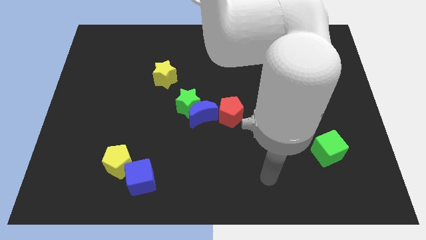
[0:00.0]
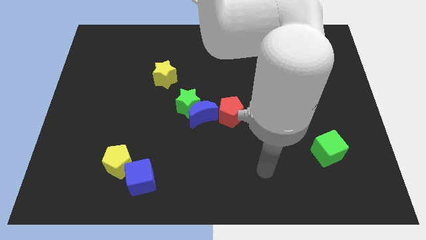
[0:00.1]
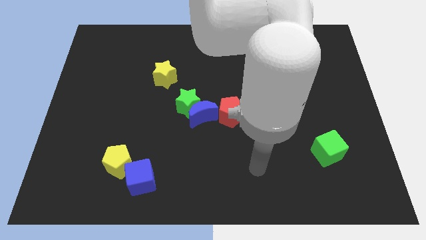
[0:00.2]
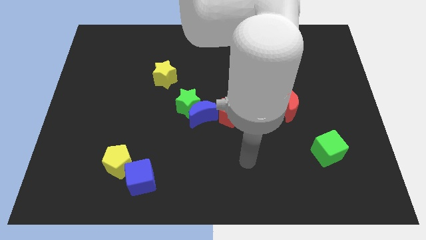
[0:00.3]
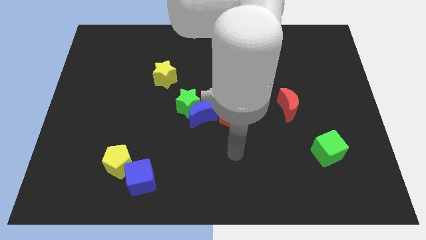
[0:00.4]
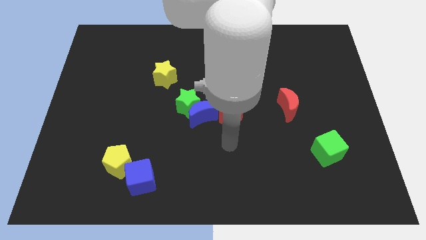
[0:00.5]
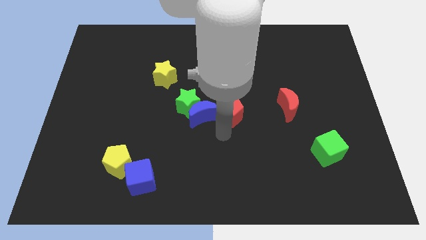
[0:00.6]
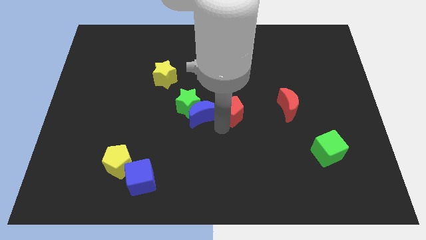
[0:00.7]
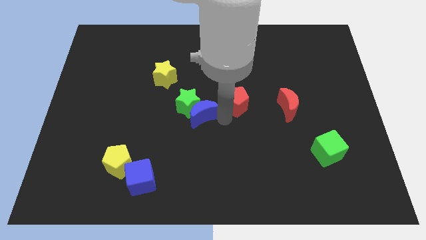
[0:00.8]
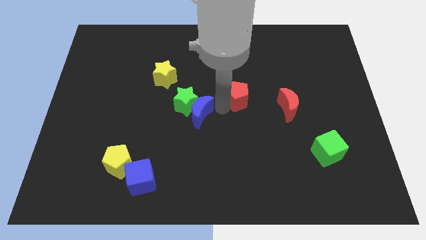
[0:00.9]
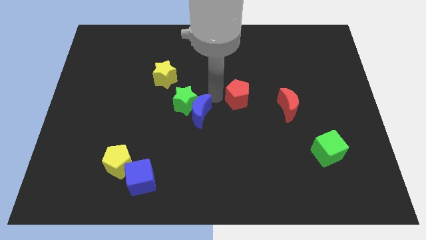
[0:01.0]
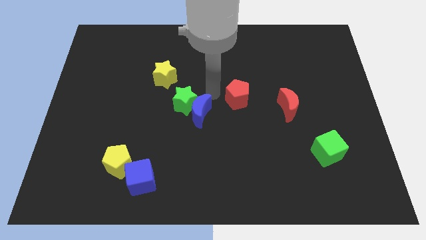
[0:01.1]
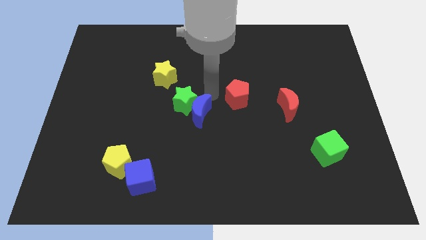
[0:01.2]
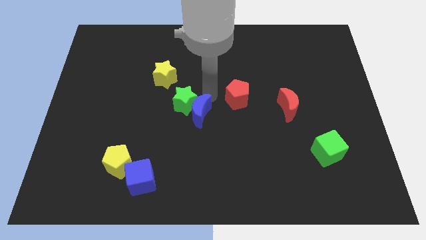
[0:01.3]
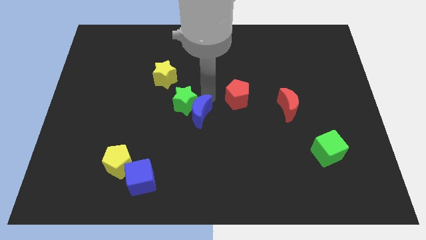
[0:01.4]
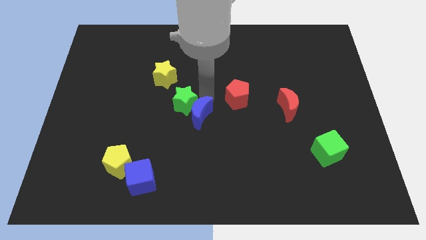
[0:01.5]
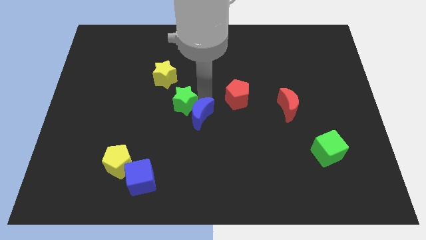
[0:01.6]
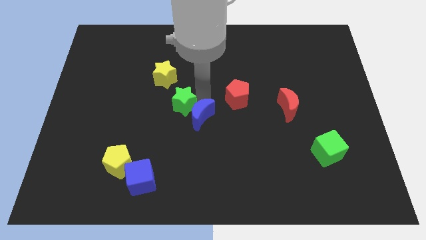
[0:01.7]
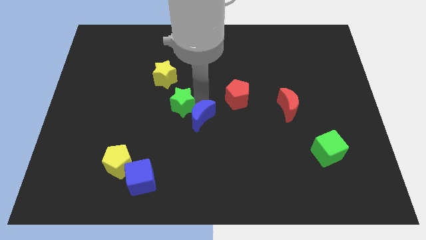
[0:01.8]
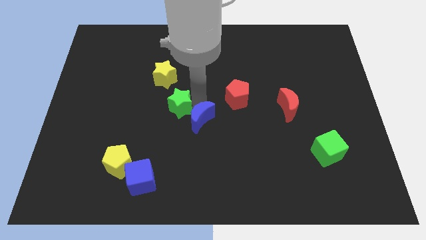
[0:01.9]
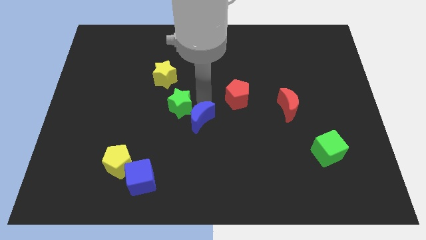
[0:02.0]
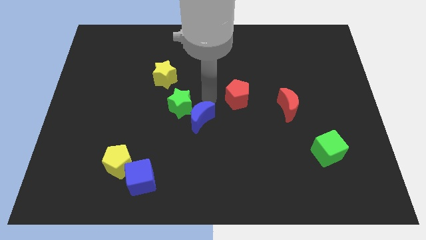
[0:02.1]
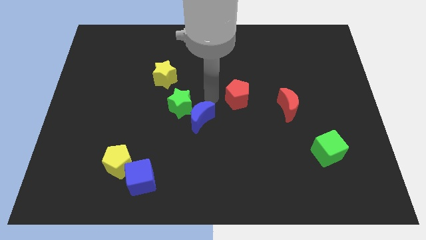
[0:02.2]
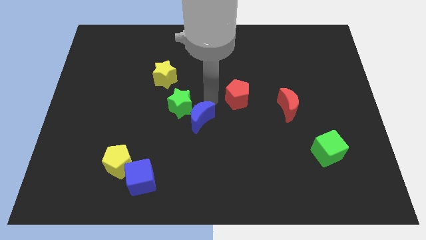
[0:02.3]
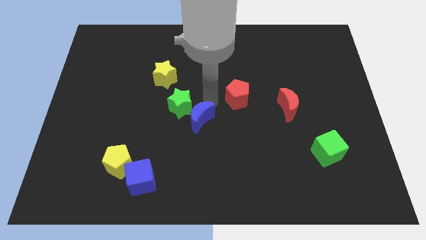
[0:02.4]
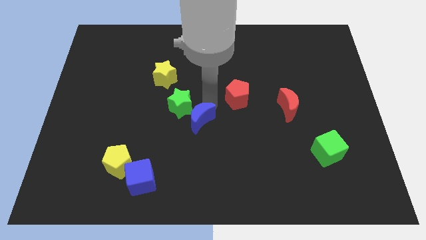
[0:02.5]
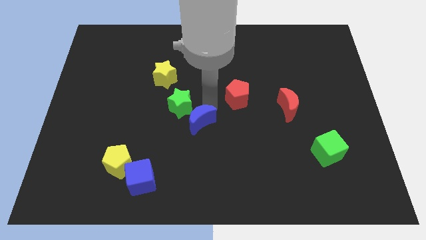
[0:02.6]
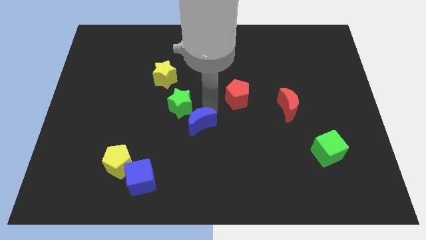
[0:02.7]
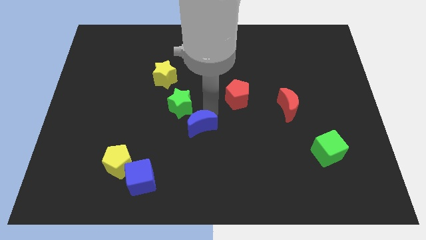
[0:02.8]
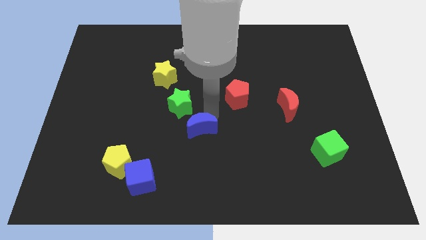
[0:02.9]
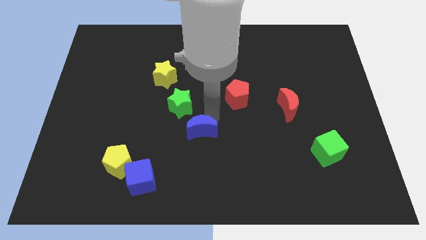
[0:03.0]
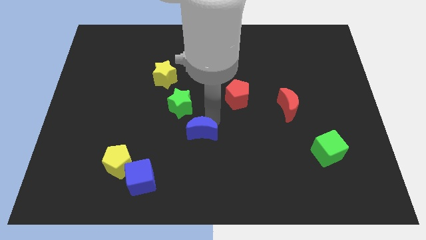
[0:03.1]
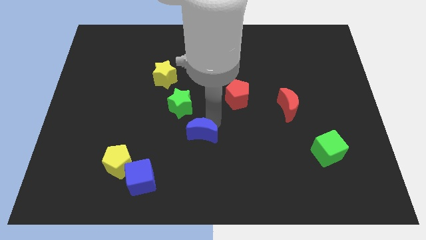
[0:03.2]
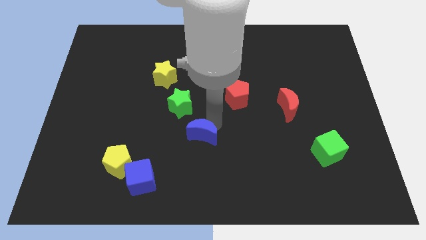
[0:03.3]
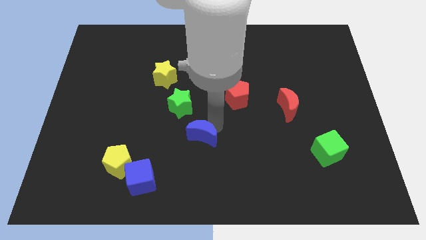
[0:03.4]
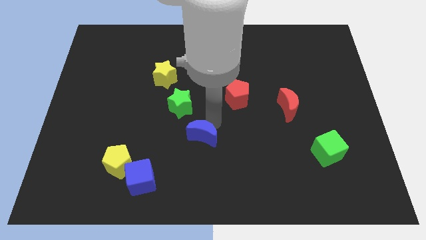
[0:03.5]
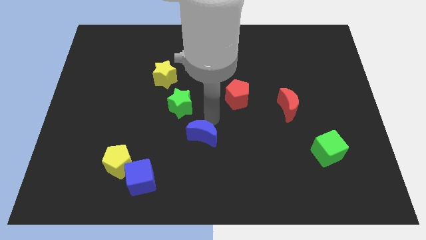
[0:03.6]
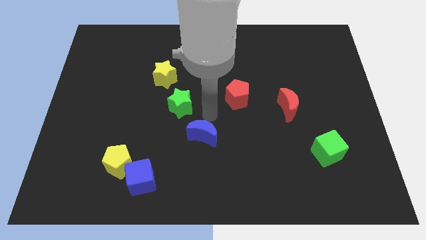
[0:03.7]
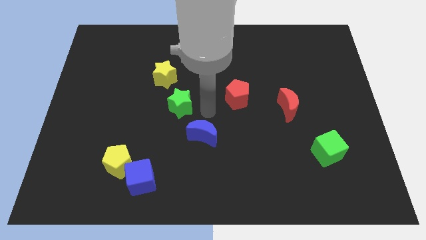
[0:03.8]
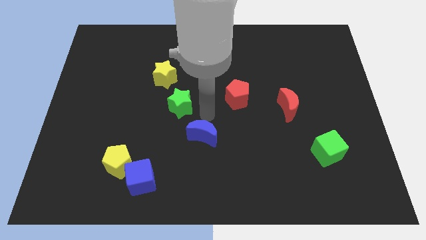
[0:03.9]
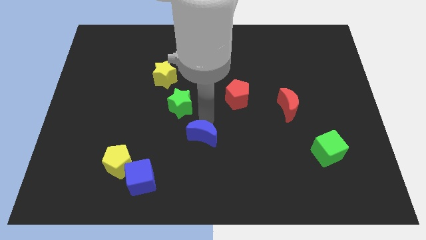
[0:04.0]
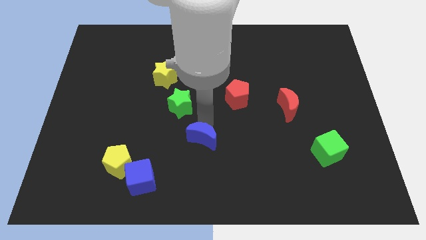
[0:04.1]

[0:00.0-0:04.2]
pull the blue moon apart from the green star and red pentagon

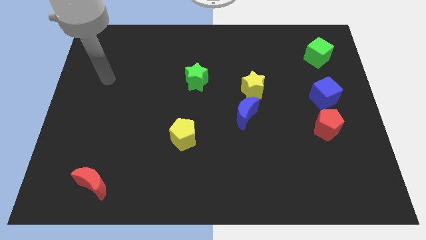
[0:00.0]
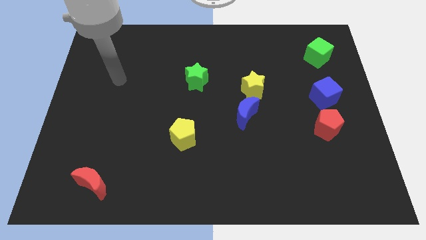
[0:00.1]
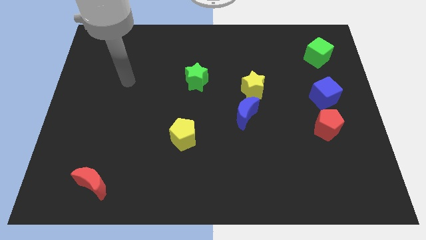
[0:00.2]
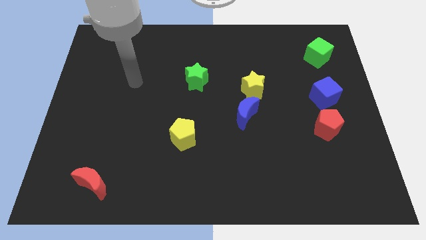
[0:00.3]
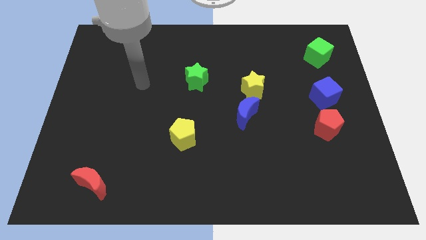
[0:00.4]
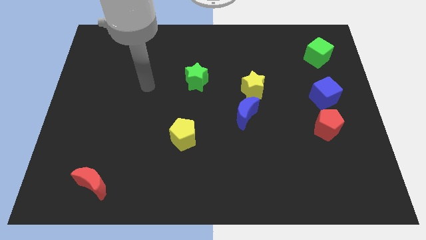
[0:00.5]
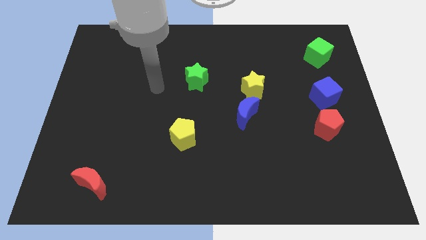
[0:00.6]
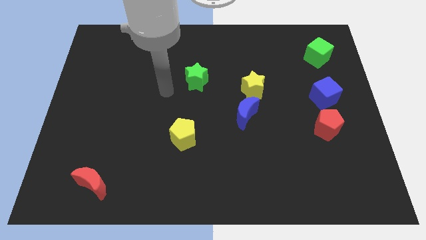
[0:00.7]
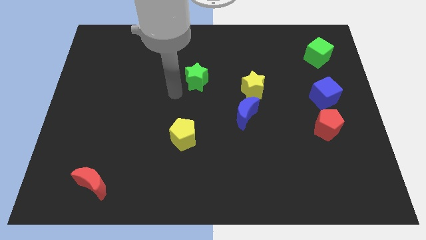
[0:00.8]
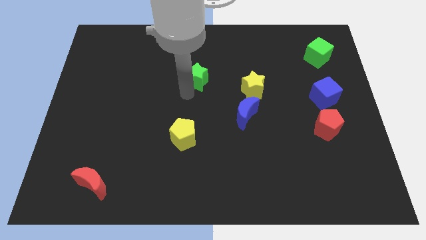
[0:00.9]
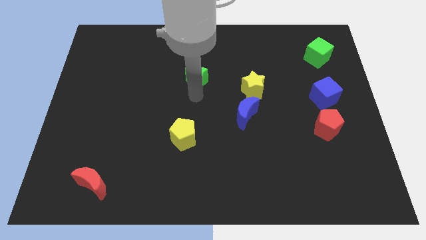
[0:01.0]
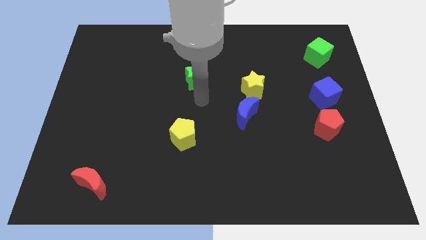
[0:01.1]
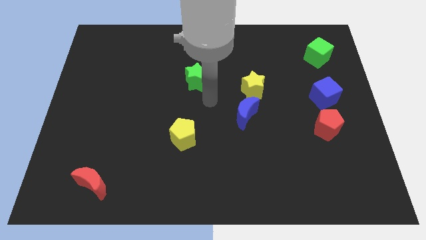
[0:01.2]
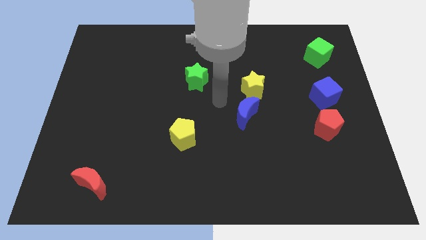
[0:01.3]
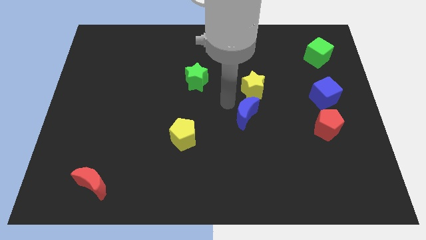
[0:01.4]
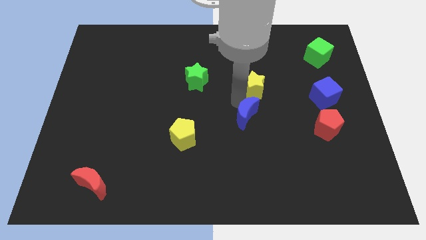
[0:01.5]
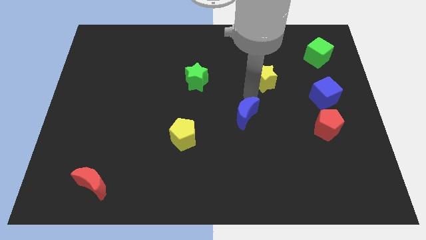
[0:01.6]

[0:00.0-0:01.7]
pull the blue moon apart from the yellow star

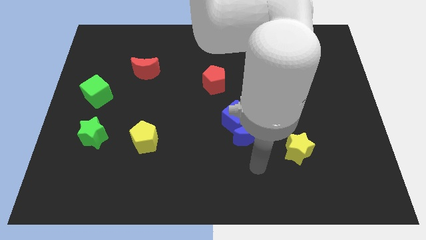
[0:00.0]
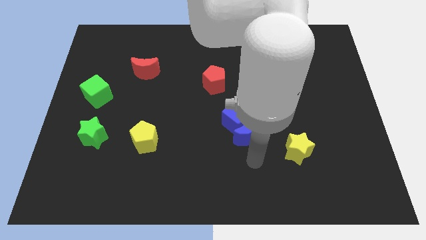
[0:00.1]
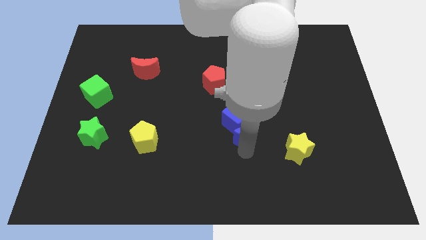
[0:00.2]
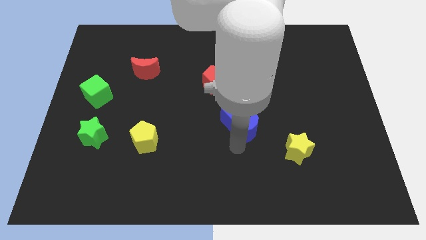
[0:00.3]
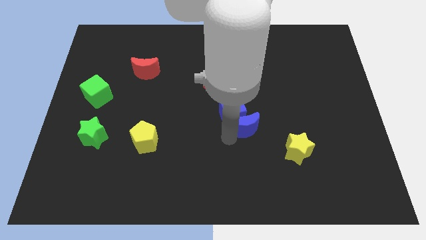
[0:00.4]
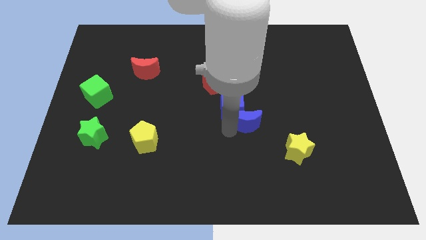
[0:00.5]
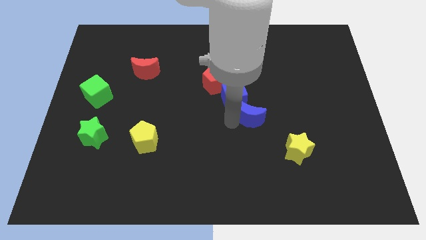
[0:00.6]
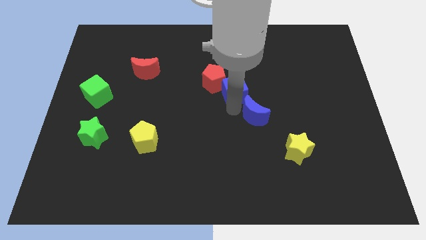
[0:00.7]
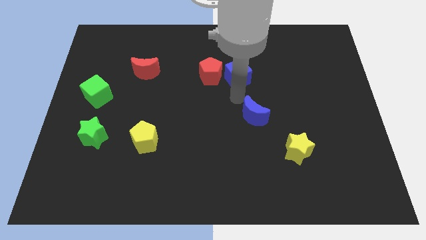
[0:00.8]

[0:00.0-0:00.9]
separate the blue moon from the blue cube

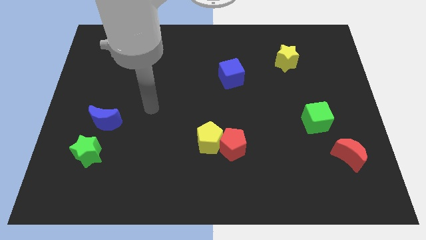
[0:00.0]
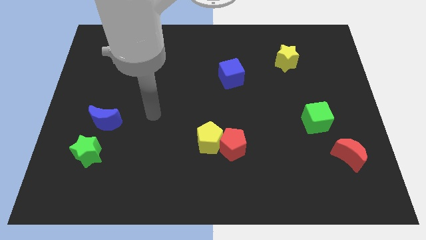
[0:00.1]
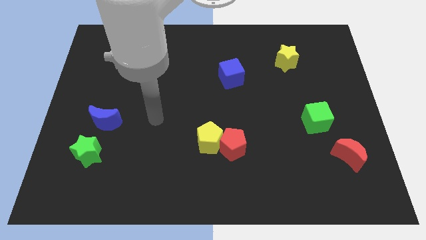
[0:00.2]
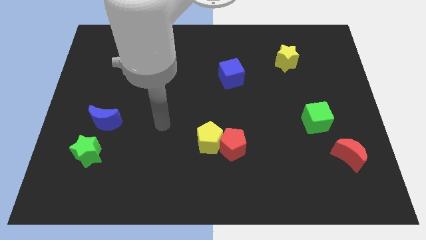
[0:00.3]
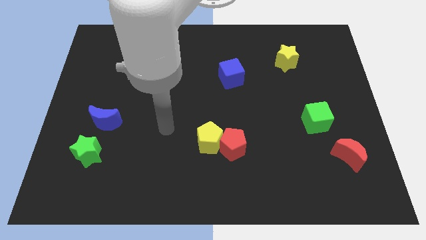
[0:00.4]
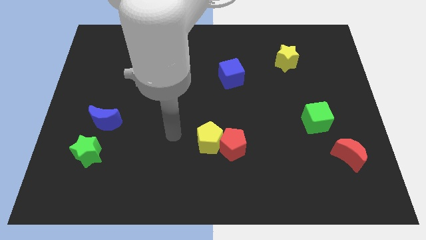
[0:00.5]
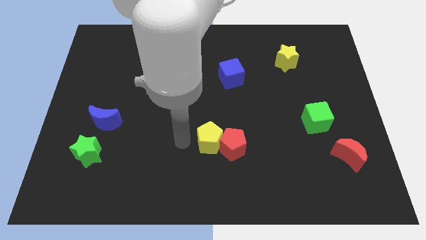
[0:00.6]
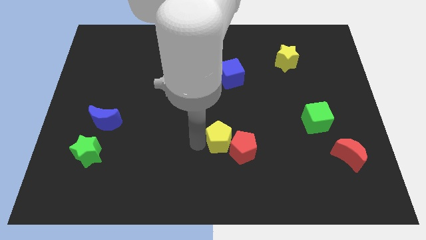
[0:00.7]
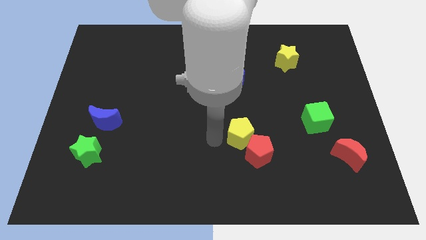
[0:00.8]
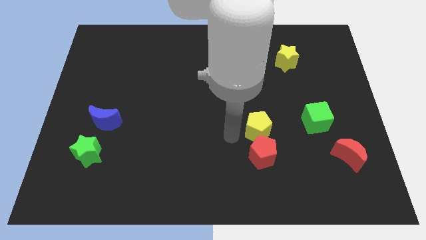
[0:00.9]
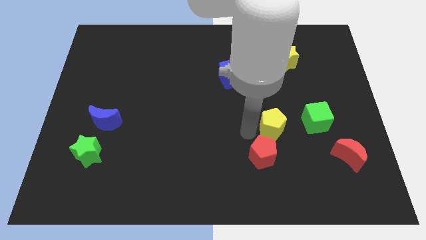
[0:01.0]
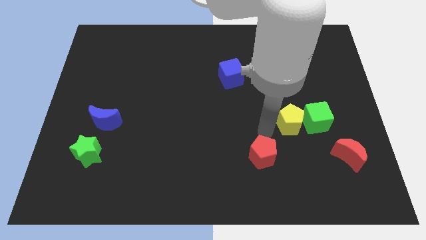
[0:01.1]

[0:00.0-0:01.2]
separate the red pentagon from the yellow pentagon

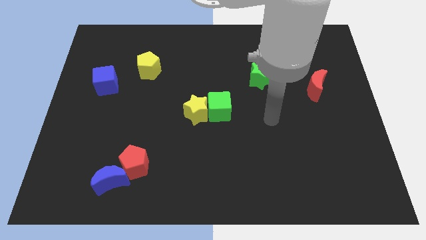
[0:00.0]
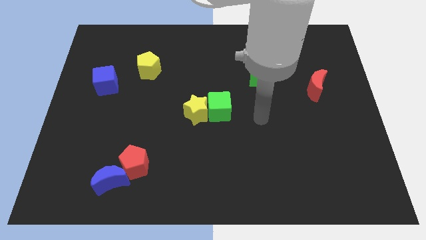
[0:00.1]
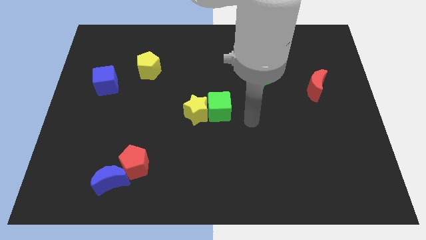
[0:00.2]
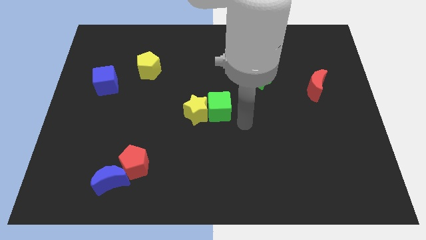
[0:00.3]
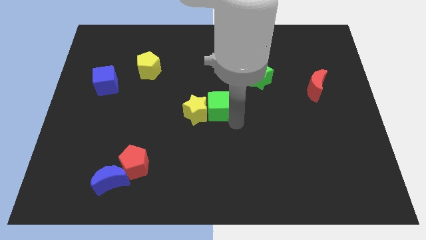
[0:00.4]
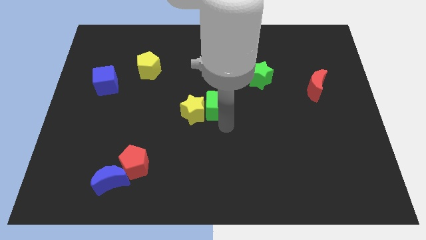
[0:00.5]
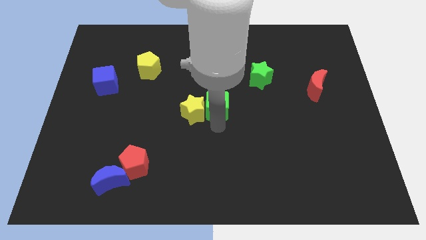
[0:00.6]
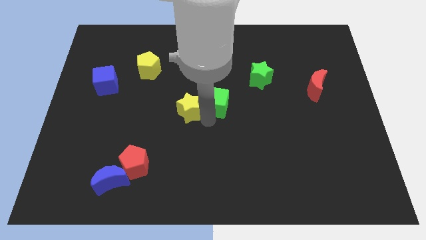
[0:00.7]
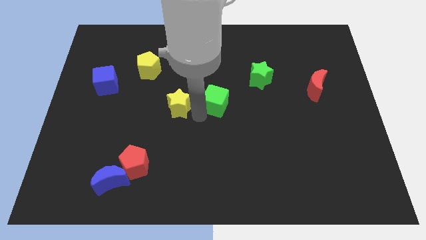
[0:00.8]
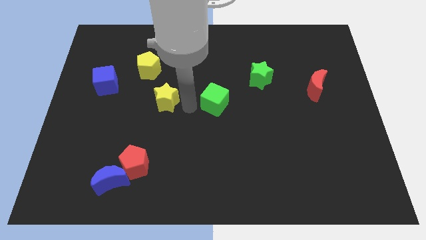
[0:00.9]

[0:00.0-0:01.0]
pull the green cube apart from the yellow star

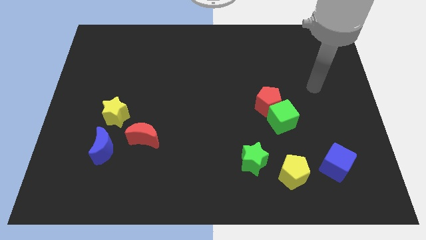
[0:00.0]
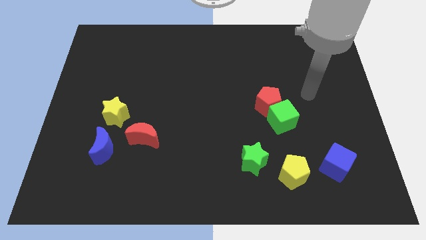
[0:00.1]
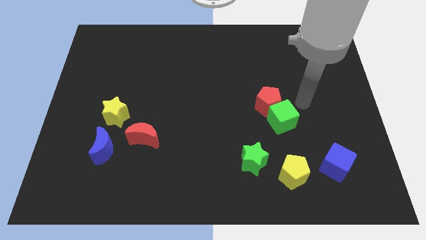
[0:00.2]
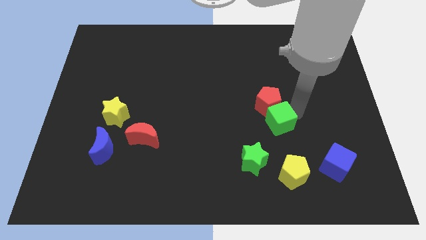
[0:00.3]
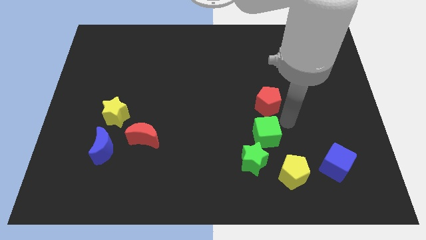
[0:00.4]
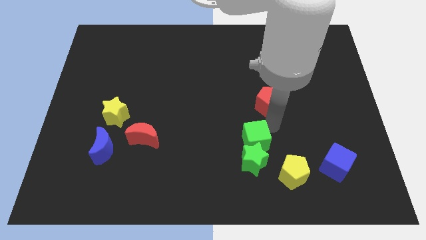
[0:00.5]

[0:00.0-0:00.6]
pull the red pentagon apart from the green cube
